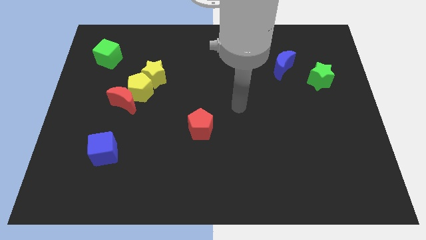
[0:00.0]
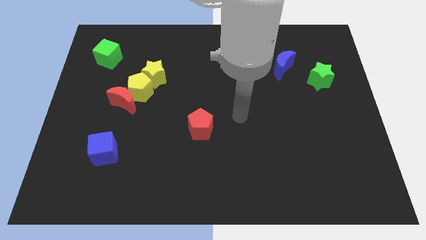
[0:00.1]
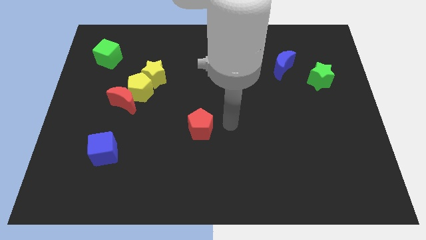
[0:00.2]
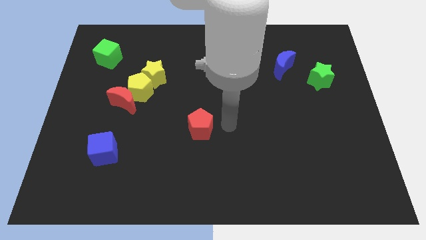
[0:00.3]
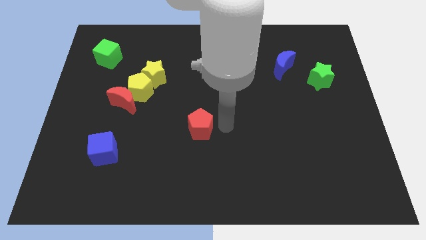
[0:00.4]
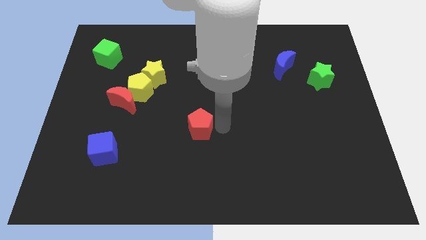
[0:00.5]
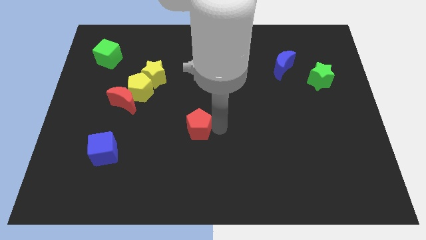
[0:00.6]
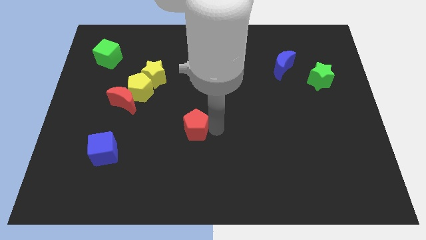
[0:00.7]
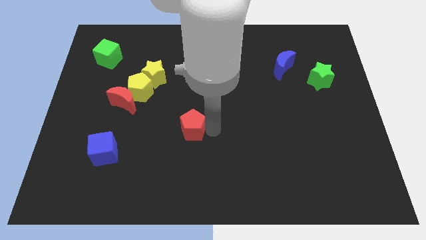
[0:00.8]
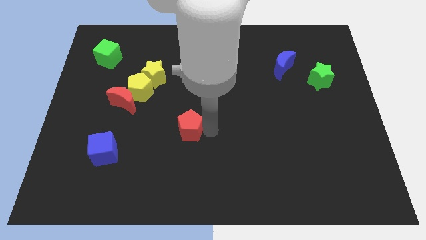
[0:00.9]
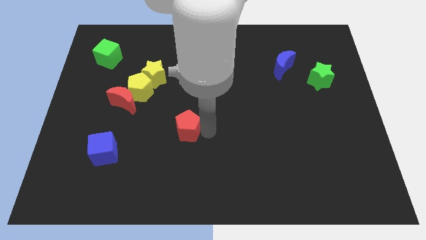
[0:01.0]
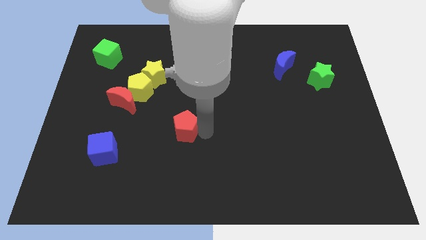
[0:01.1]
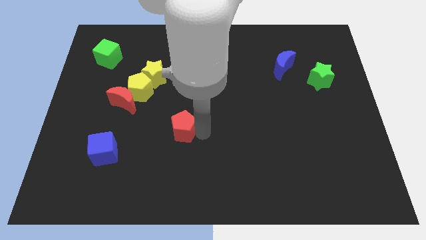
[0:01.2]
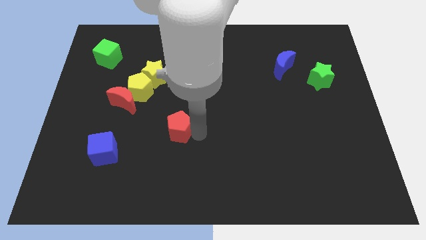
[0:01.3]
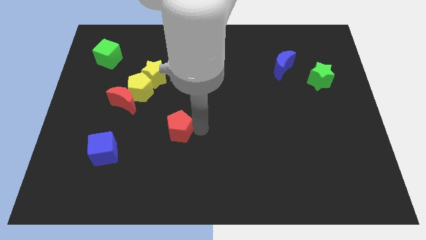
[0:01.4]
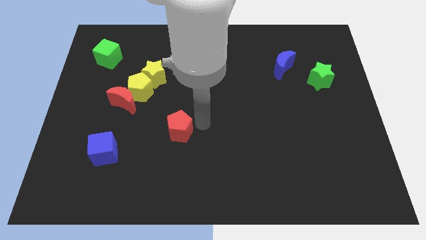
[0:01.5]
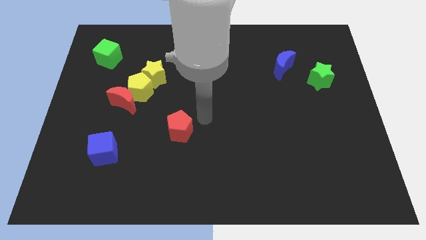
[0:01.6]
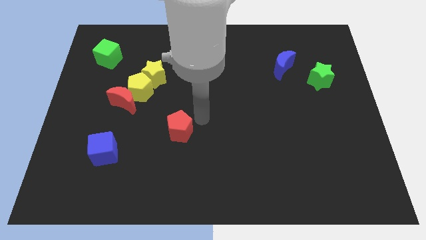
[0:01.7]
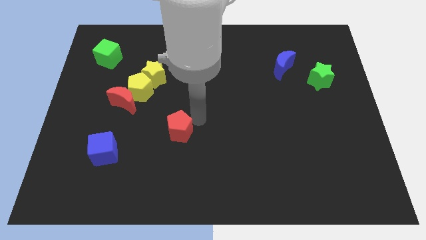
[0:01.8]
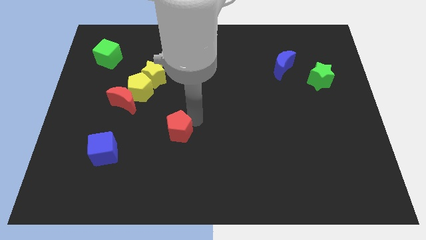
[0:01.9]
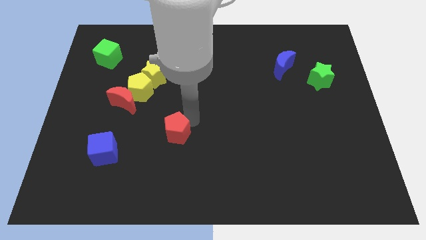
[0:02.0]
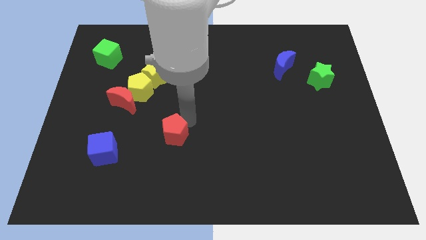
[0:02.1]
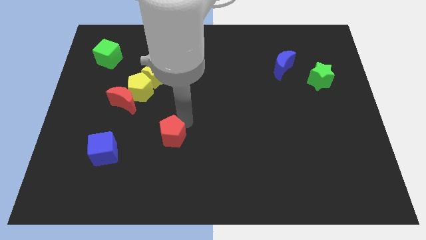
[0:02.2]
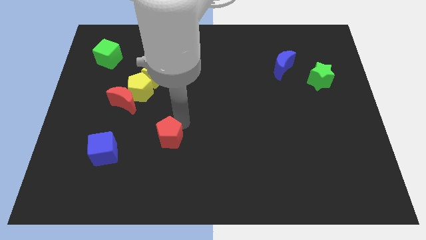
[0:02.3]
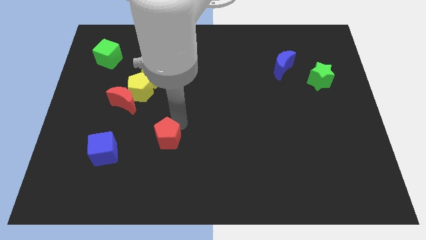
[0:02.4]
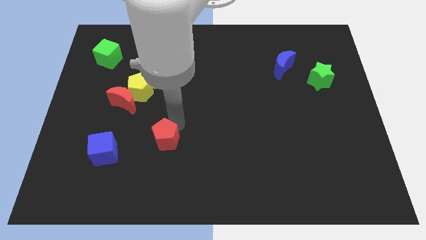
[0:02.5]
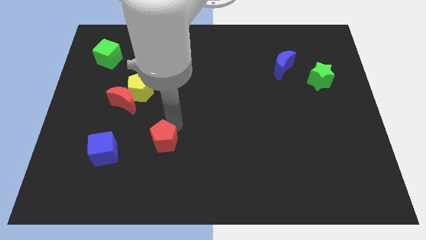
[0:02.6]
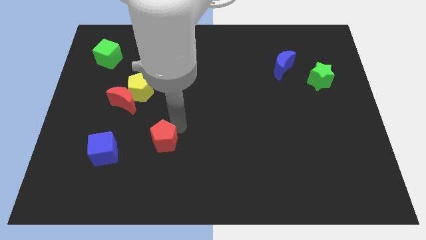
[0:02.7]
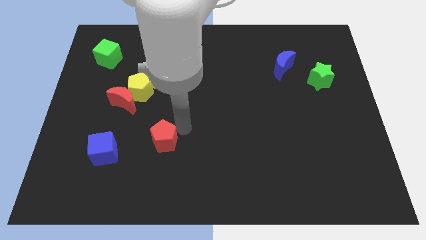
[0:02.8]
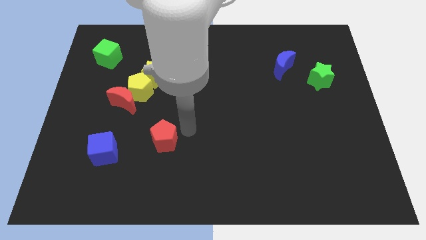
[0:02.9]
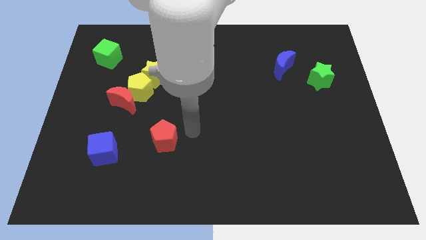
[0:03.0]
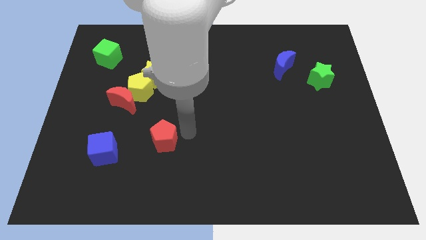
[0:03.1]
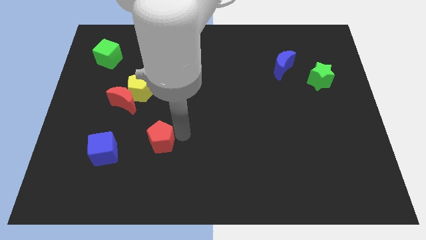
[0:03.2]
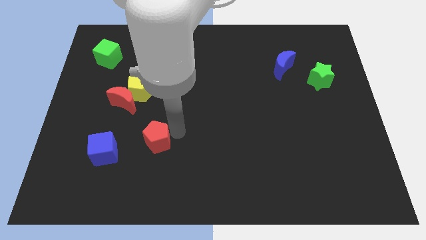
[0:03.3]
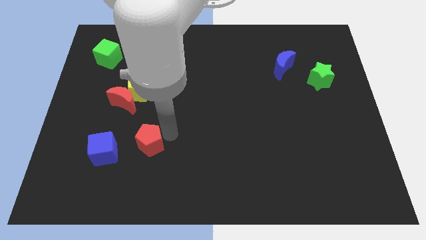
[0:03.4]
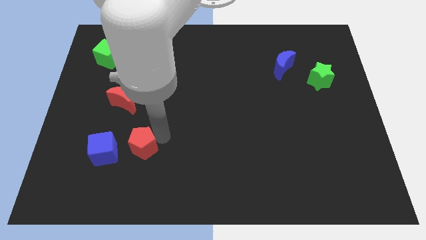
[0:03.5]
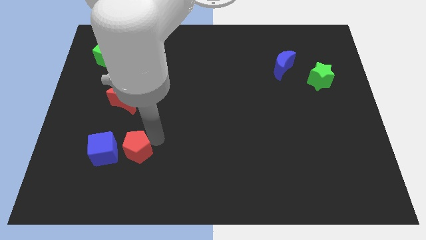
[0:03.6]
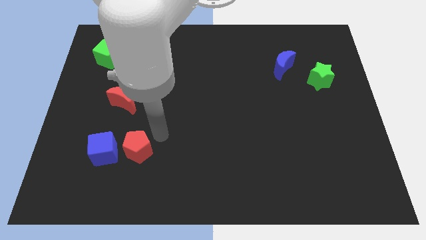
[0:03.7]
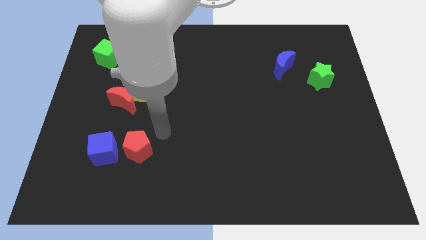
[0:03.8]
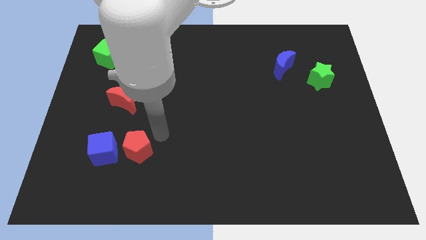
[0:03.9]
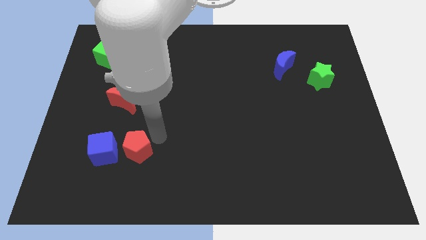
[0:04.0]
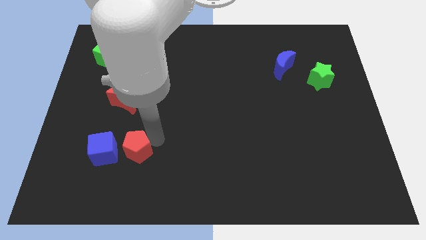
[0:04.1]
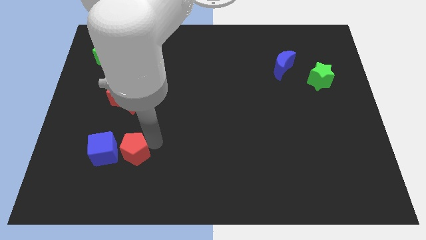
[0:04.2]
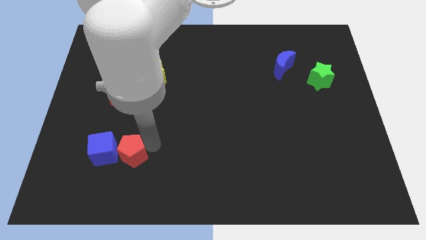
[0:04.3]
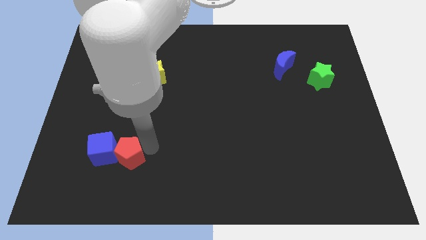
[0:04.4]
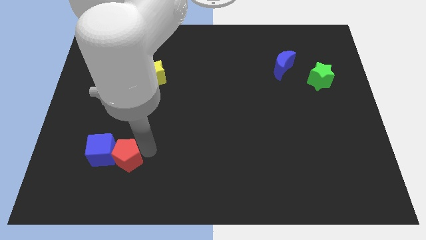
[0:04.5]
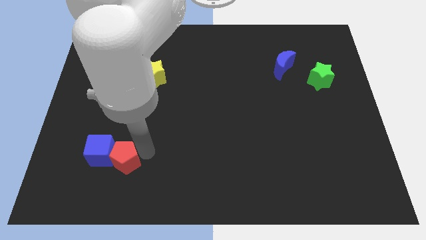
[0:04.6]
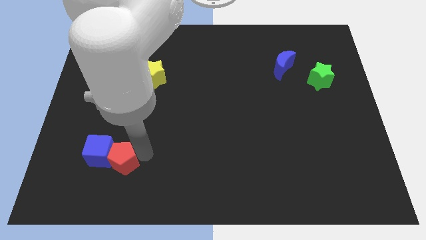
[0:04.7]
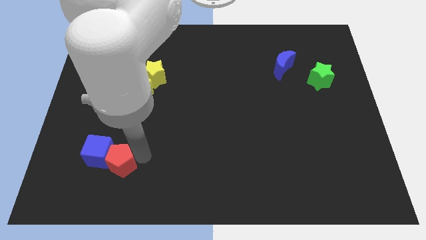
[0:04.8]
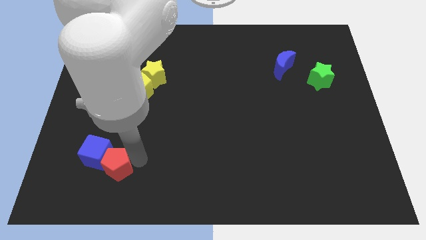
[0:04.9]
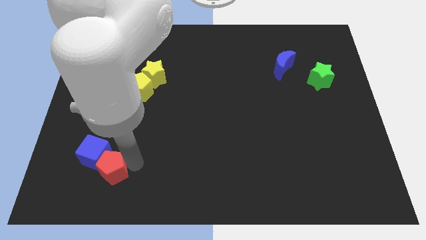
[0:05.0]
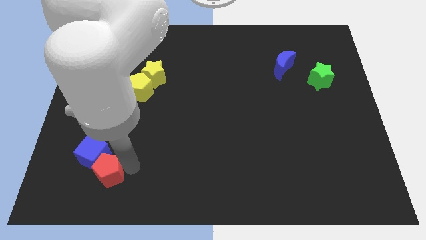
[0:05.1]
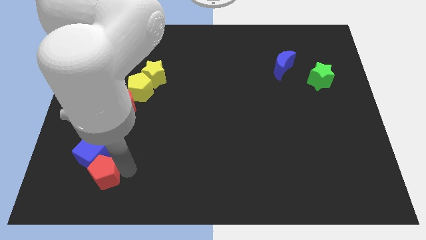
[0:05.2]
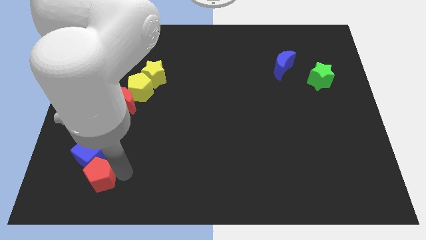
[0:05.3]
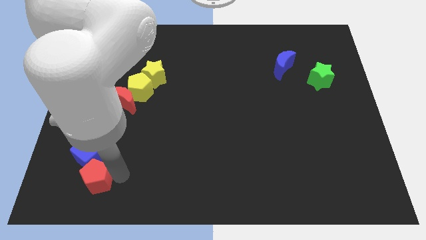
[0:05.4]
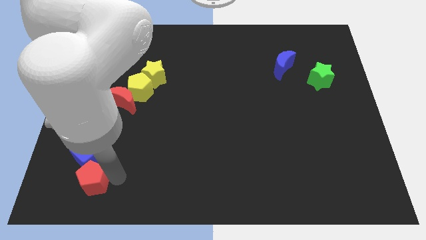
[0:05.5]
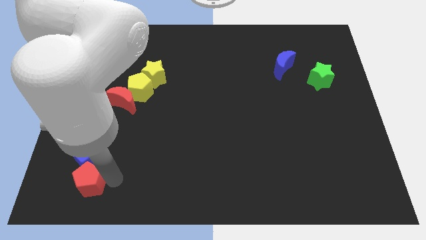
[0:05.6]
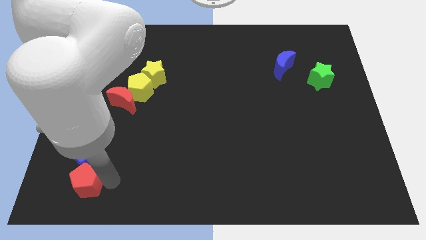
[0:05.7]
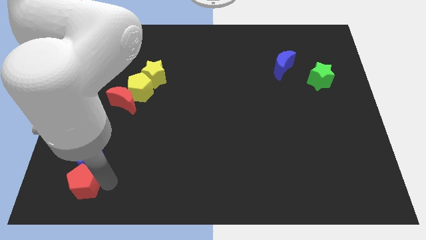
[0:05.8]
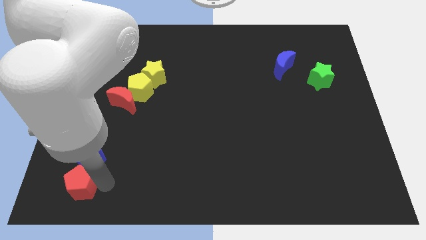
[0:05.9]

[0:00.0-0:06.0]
slide the red pentagon to the bottom left corner
